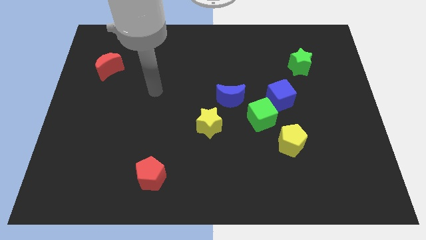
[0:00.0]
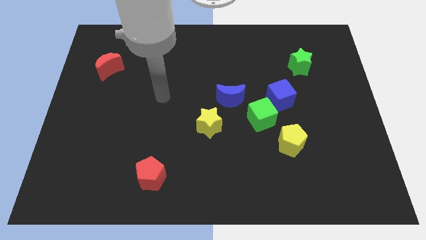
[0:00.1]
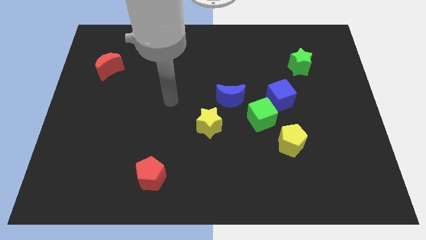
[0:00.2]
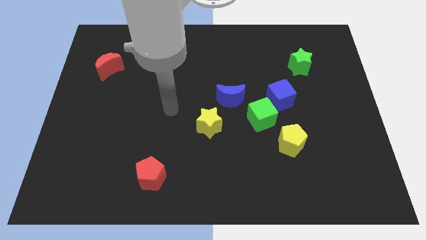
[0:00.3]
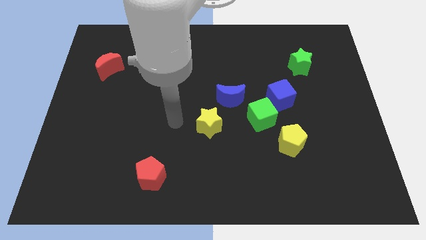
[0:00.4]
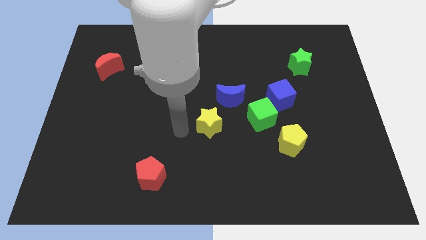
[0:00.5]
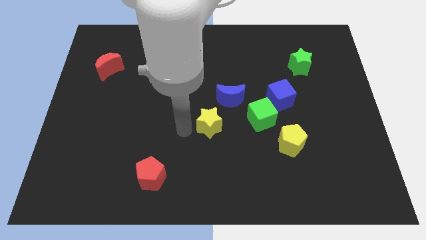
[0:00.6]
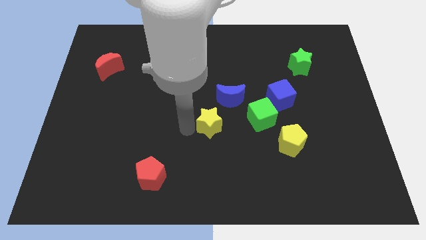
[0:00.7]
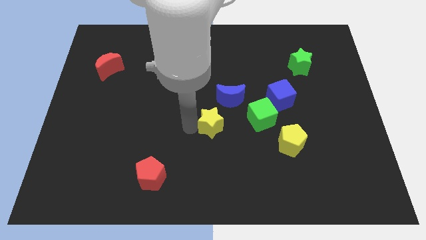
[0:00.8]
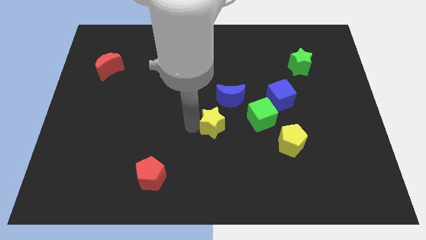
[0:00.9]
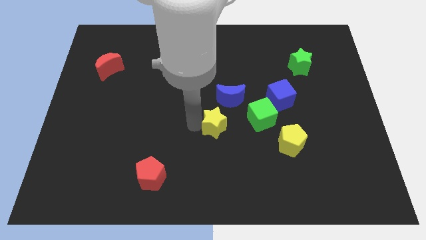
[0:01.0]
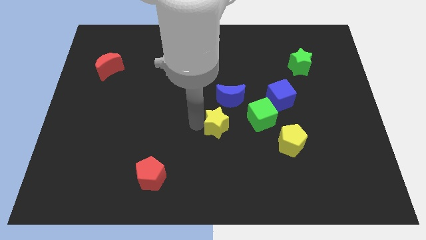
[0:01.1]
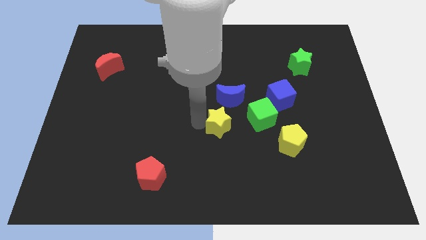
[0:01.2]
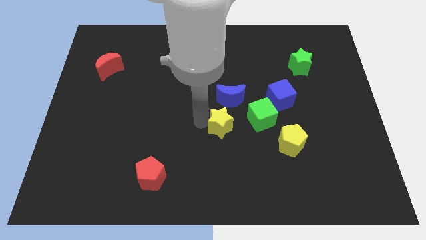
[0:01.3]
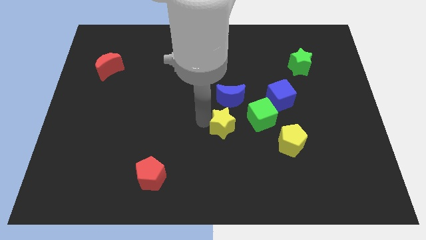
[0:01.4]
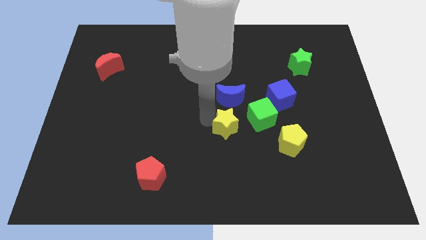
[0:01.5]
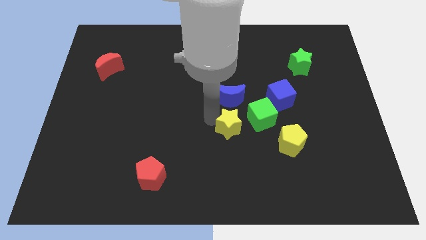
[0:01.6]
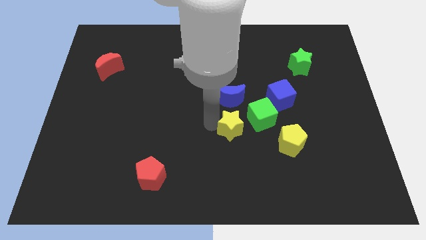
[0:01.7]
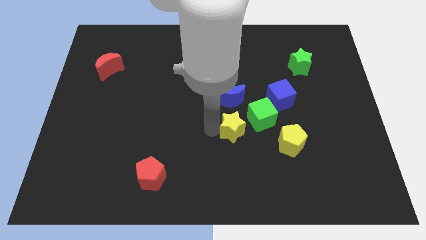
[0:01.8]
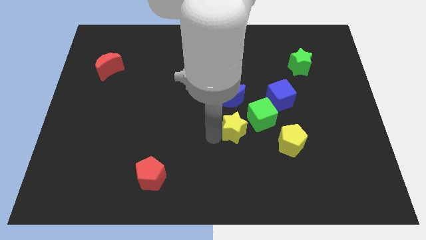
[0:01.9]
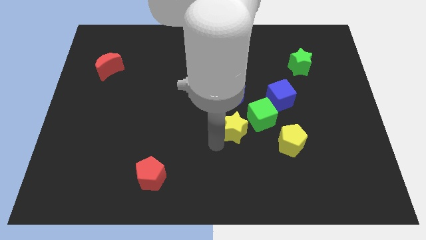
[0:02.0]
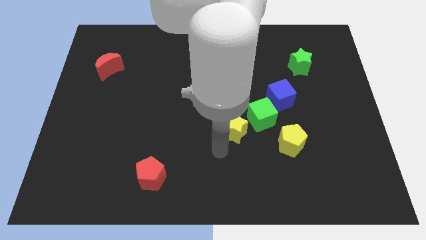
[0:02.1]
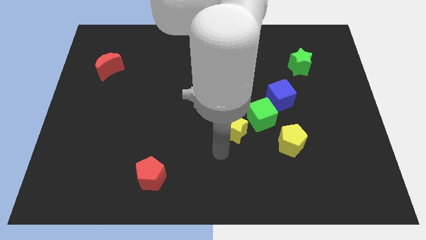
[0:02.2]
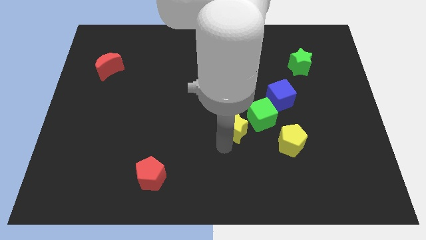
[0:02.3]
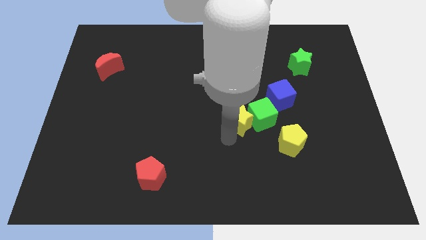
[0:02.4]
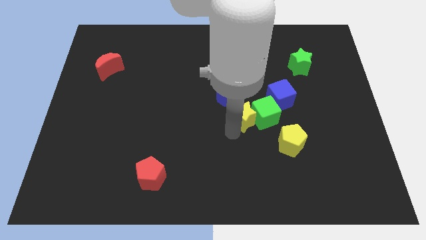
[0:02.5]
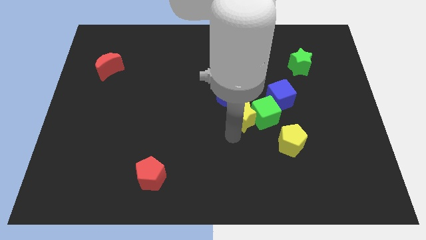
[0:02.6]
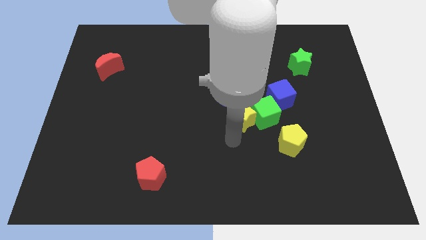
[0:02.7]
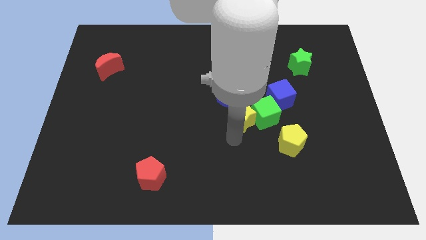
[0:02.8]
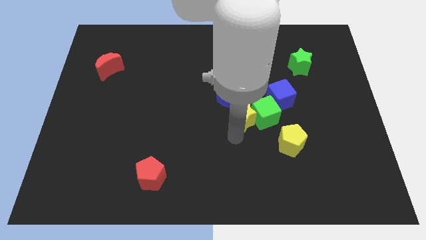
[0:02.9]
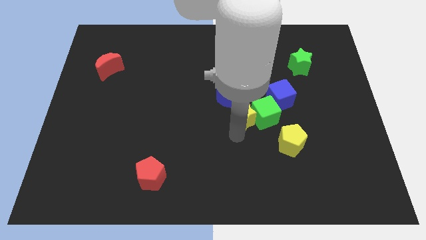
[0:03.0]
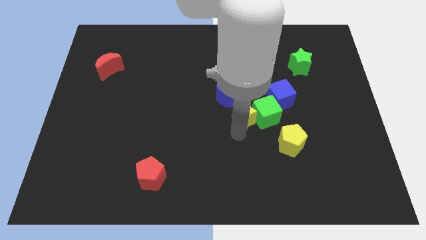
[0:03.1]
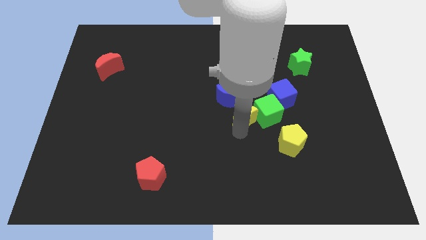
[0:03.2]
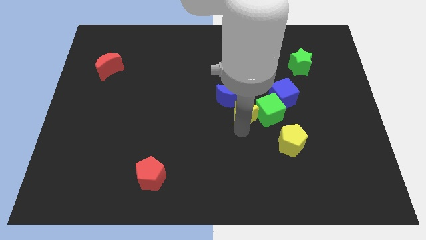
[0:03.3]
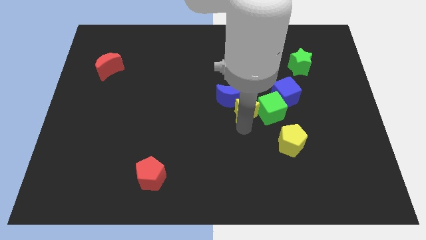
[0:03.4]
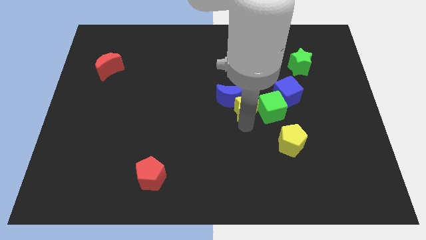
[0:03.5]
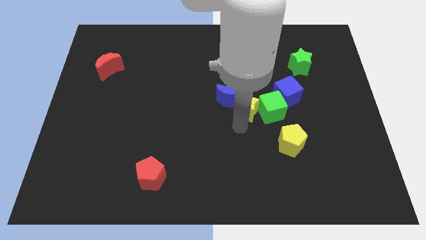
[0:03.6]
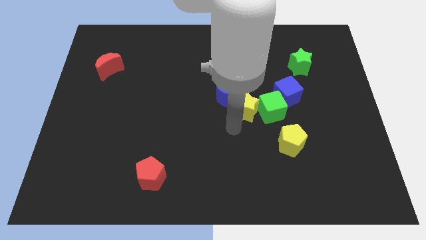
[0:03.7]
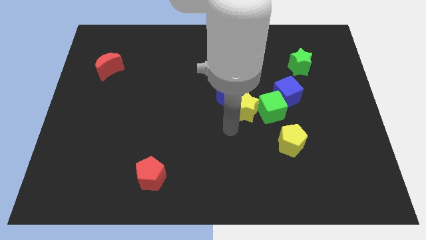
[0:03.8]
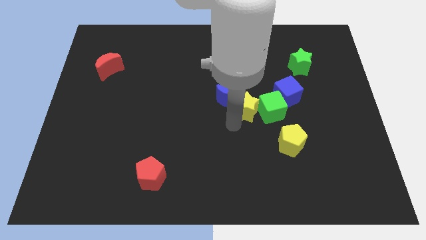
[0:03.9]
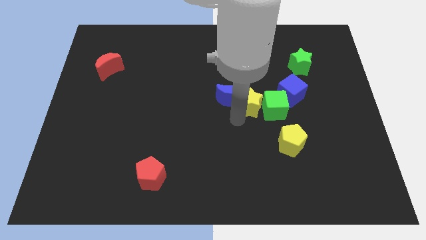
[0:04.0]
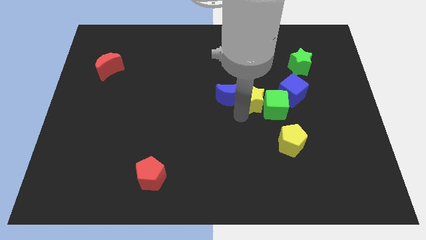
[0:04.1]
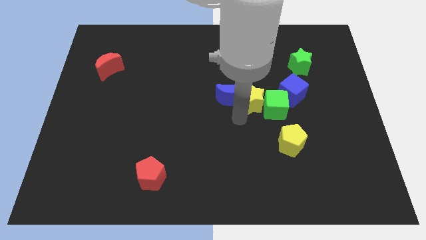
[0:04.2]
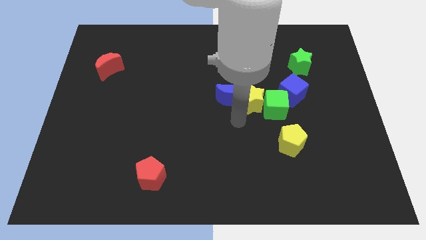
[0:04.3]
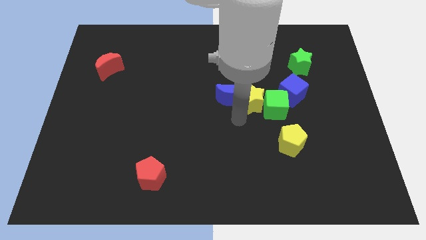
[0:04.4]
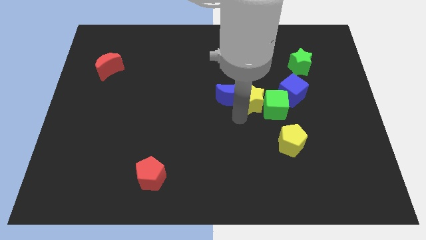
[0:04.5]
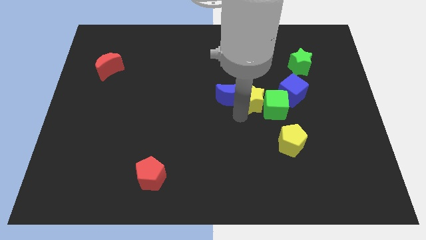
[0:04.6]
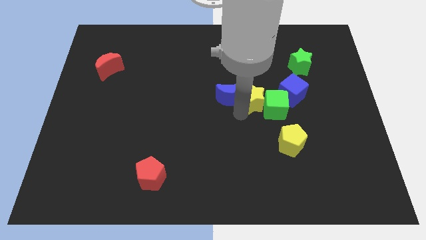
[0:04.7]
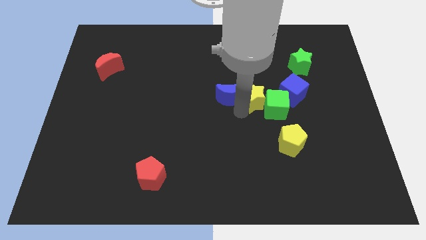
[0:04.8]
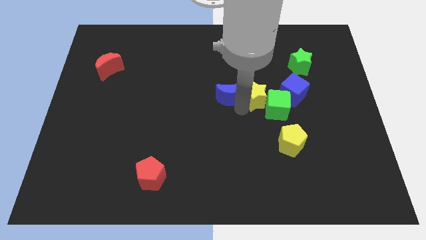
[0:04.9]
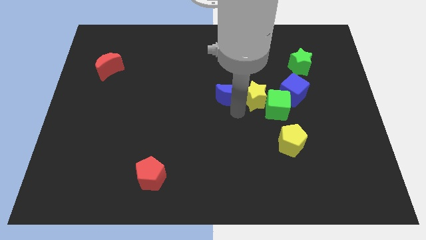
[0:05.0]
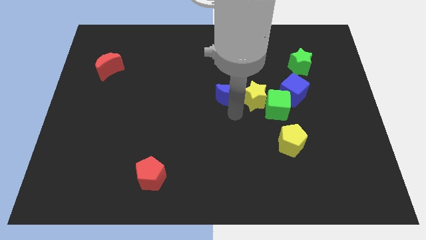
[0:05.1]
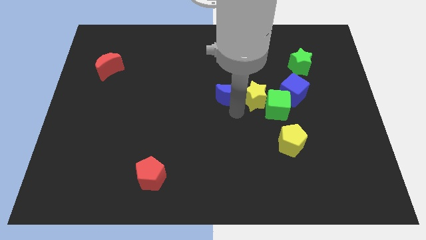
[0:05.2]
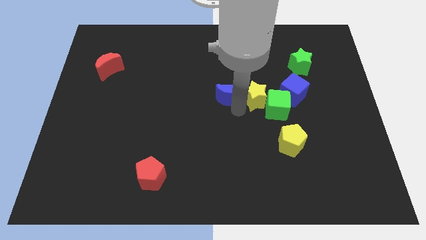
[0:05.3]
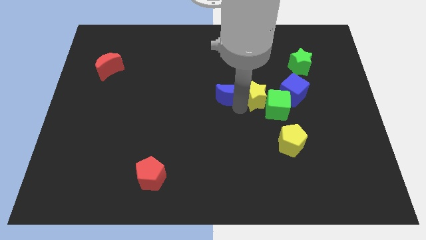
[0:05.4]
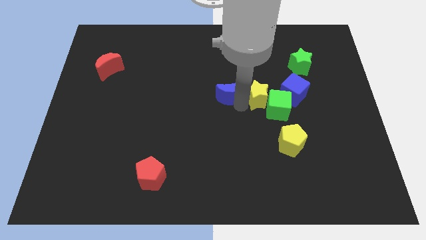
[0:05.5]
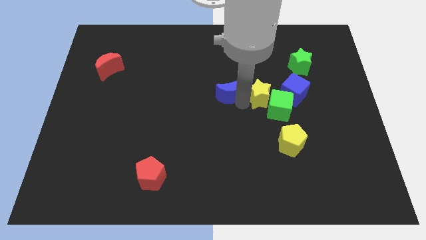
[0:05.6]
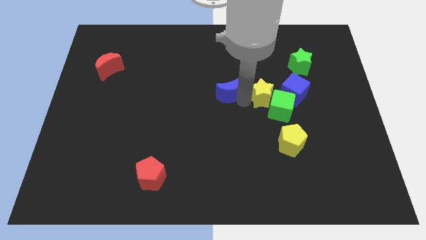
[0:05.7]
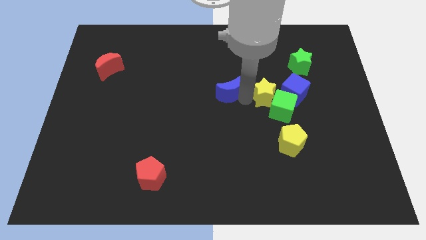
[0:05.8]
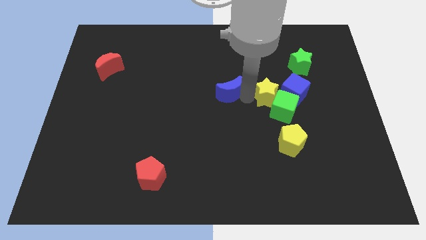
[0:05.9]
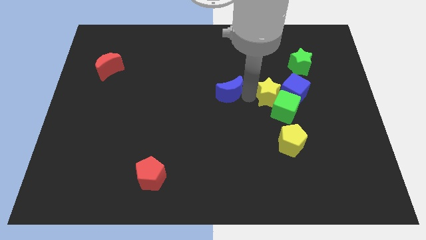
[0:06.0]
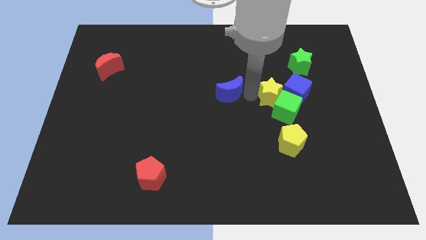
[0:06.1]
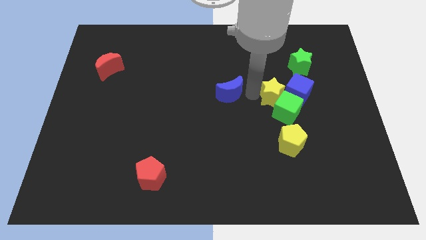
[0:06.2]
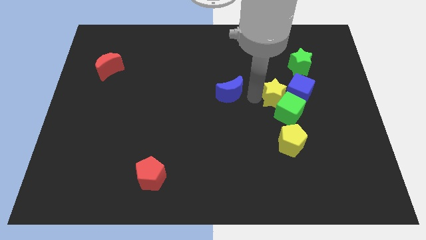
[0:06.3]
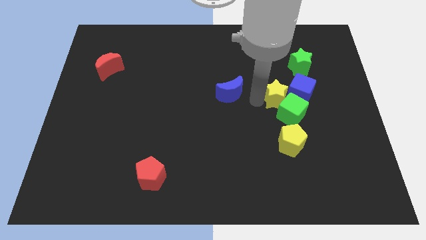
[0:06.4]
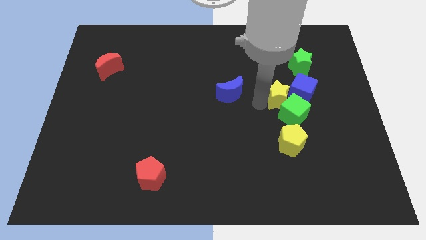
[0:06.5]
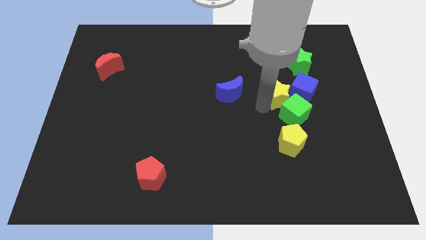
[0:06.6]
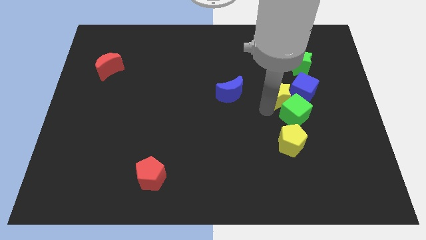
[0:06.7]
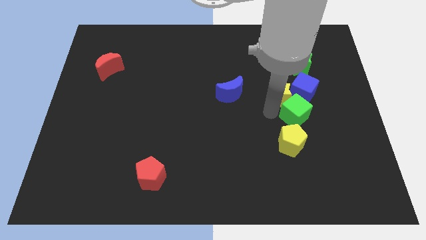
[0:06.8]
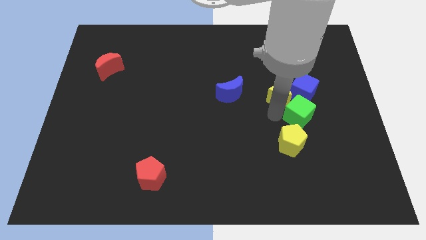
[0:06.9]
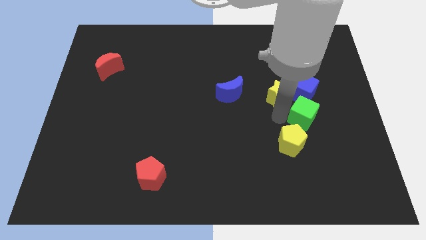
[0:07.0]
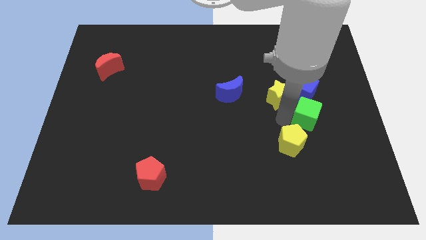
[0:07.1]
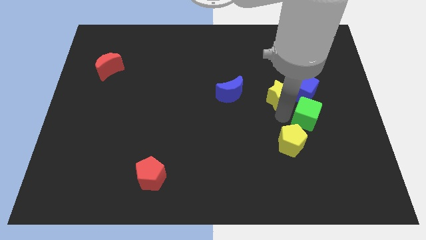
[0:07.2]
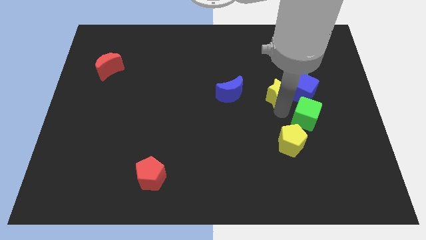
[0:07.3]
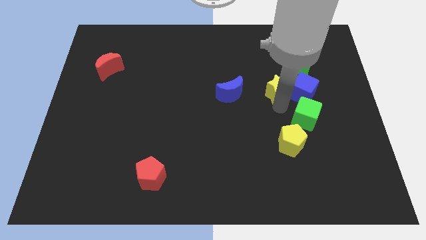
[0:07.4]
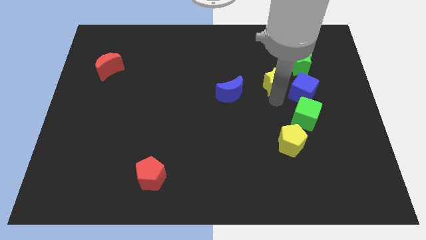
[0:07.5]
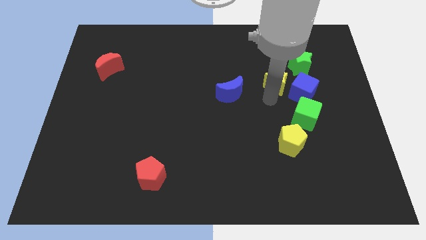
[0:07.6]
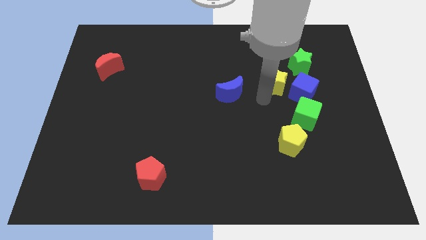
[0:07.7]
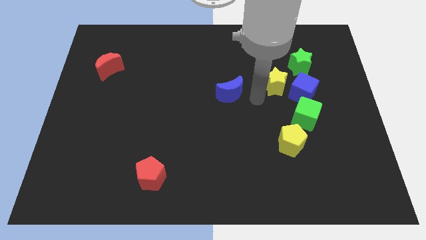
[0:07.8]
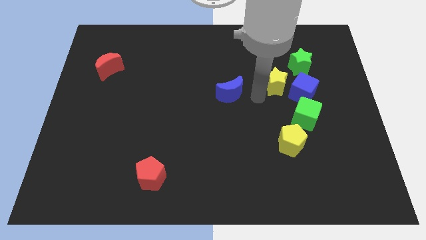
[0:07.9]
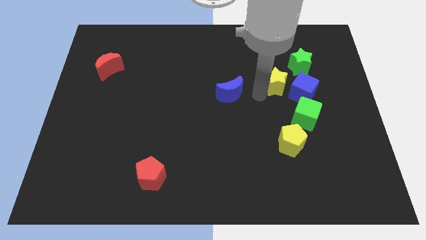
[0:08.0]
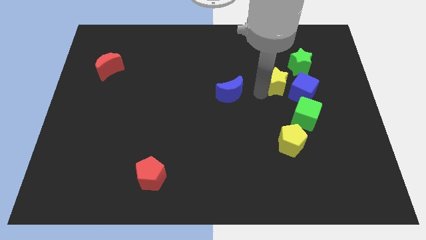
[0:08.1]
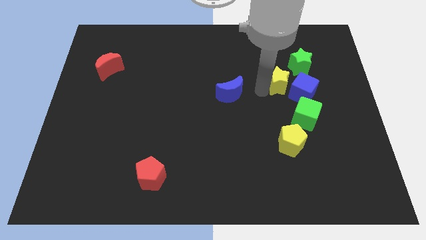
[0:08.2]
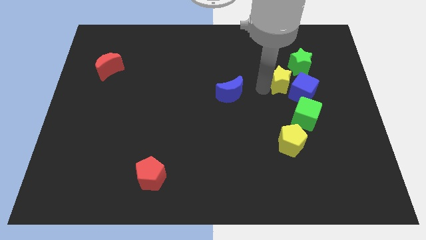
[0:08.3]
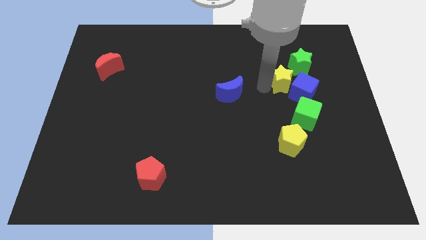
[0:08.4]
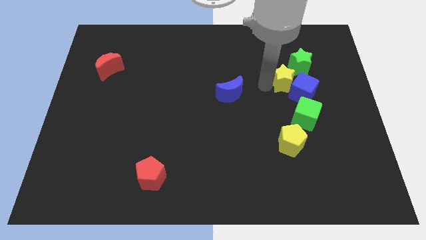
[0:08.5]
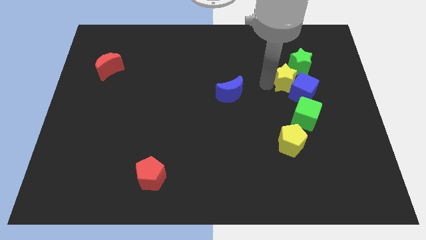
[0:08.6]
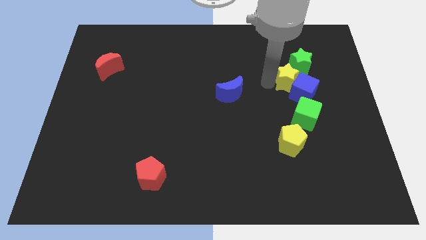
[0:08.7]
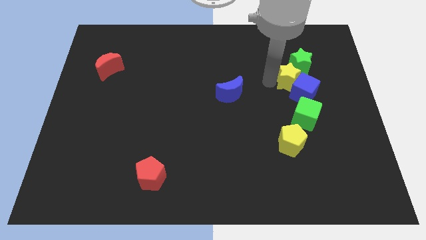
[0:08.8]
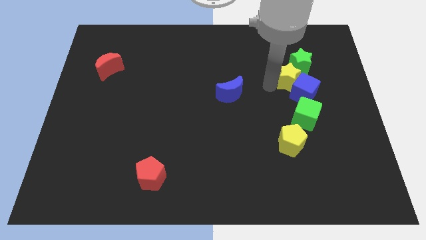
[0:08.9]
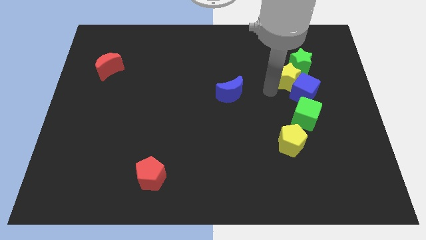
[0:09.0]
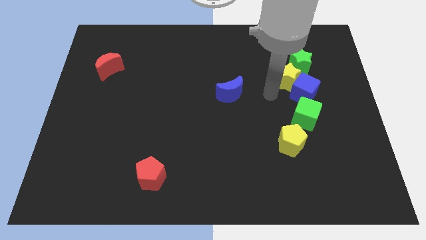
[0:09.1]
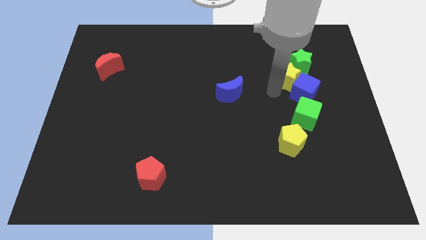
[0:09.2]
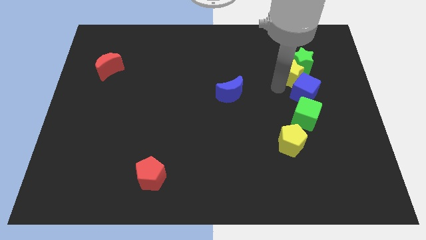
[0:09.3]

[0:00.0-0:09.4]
put the yellow star next to the green star
